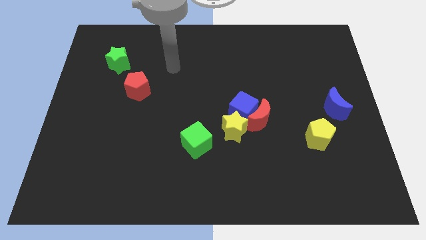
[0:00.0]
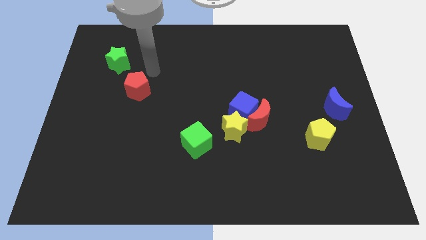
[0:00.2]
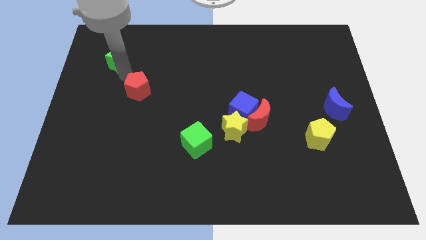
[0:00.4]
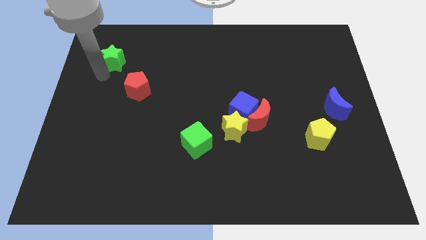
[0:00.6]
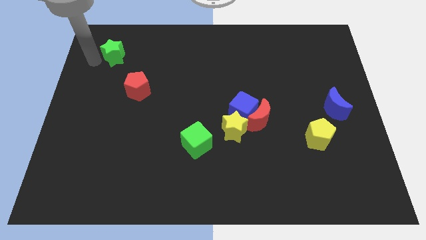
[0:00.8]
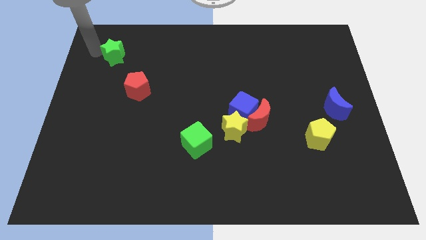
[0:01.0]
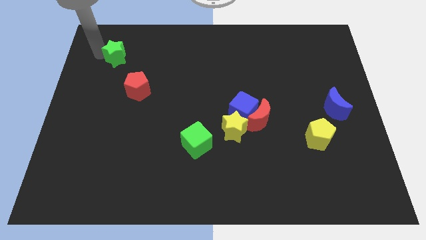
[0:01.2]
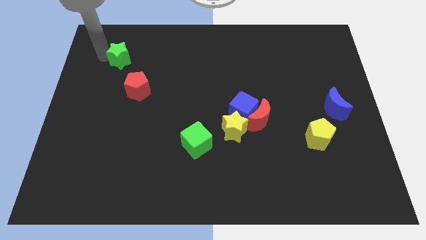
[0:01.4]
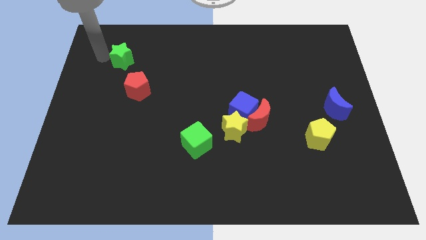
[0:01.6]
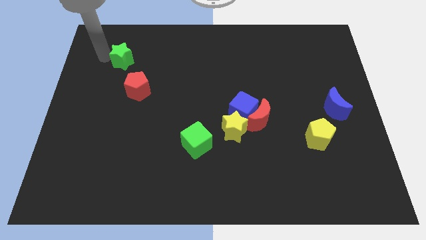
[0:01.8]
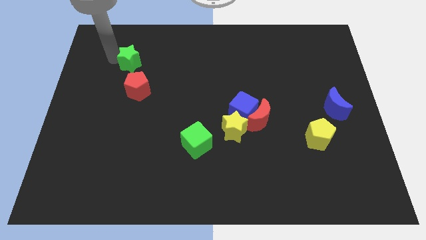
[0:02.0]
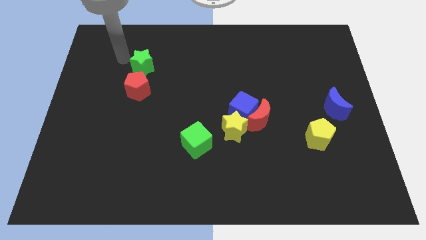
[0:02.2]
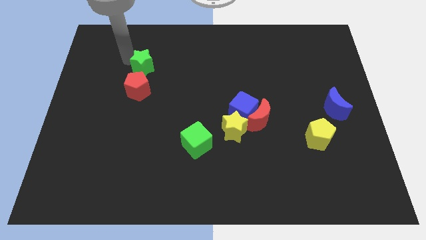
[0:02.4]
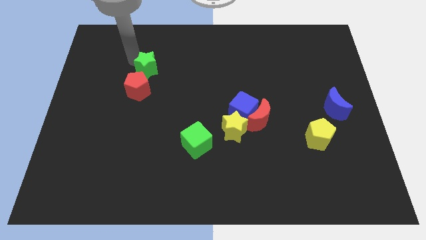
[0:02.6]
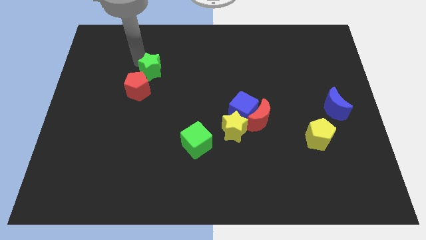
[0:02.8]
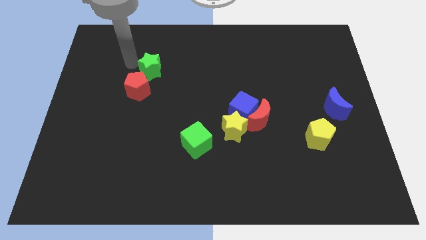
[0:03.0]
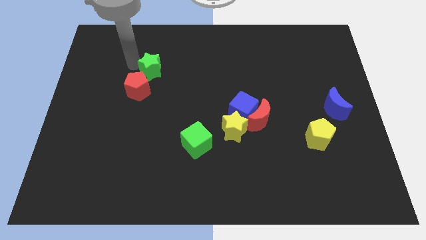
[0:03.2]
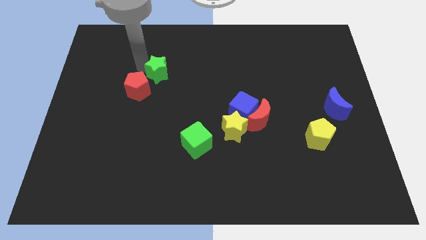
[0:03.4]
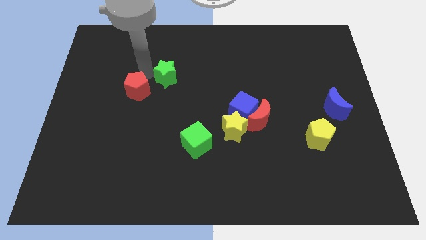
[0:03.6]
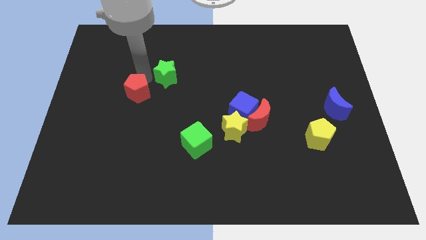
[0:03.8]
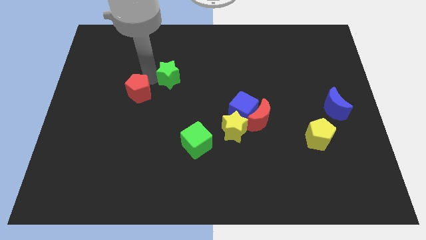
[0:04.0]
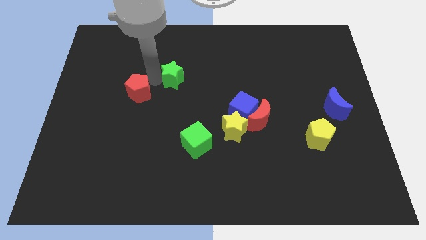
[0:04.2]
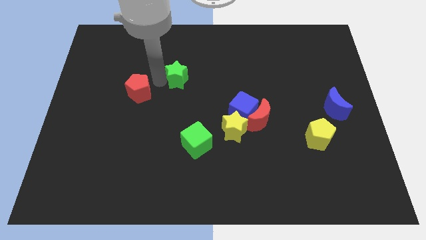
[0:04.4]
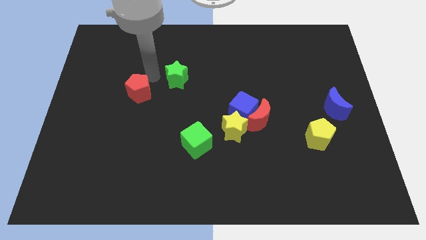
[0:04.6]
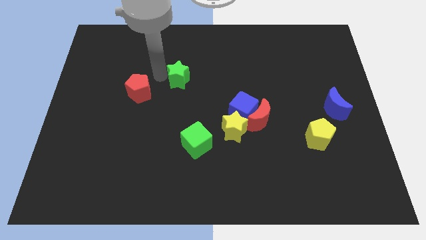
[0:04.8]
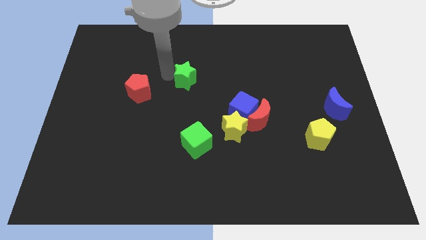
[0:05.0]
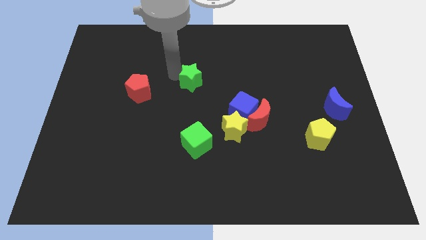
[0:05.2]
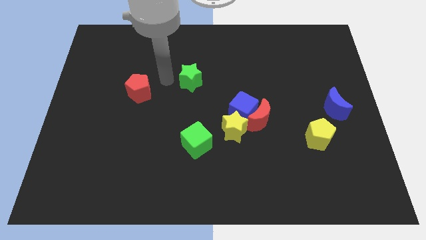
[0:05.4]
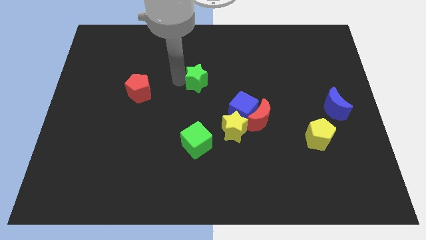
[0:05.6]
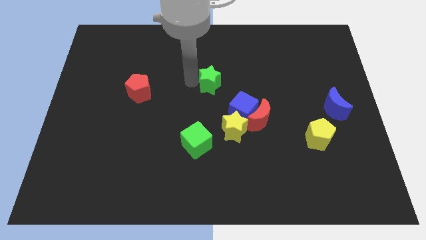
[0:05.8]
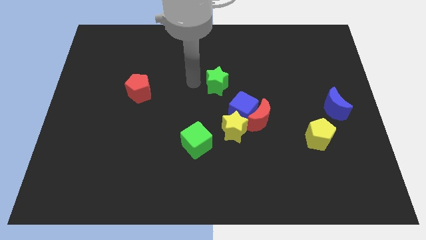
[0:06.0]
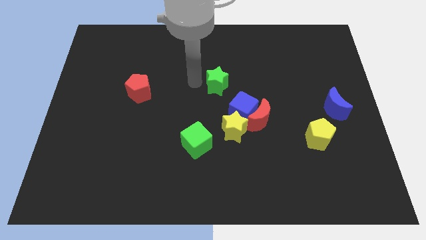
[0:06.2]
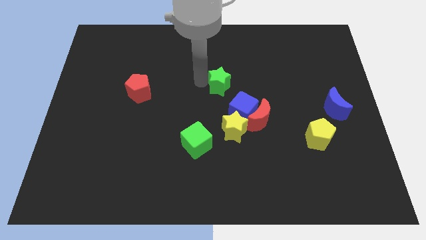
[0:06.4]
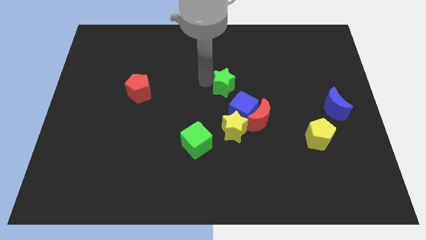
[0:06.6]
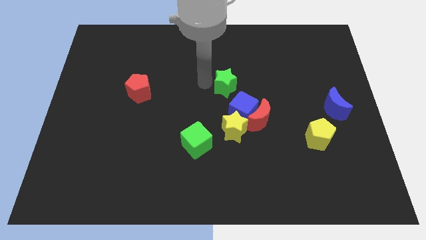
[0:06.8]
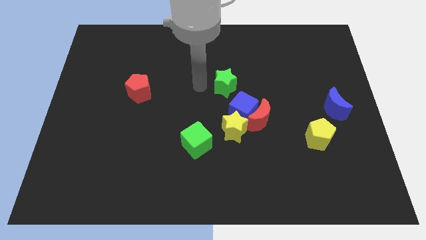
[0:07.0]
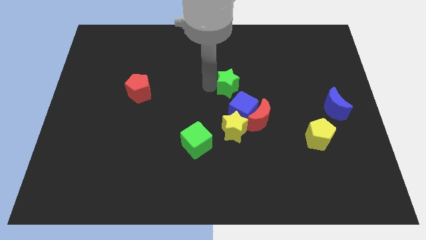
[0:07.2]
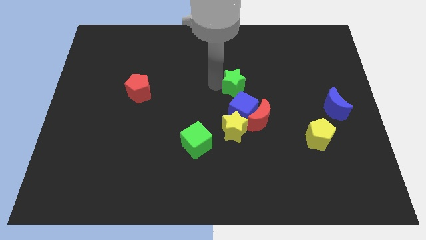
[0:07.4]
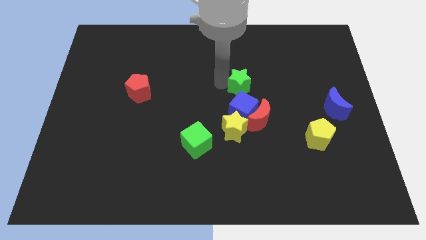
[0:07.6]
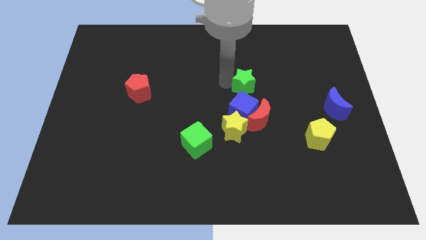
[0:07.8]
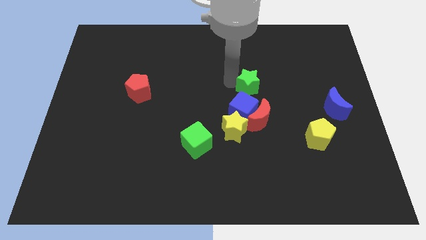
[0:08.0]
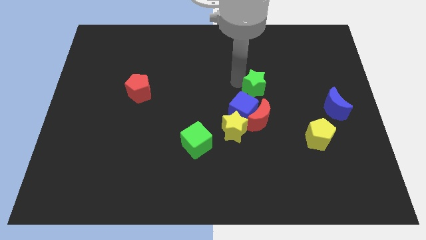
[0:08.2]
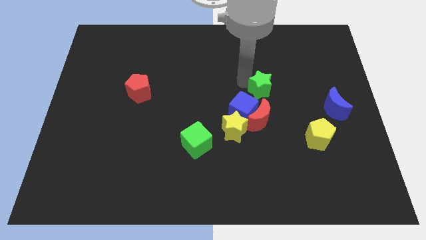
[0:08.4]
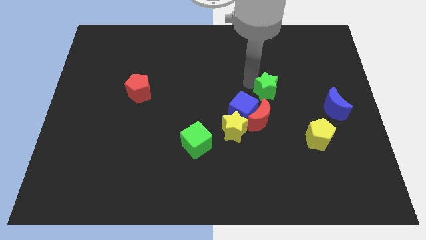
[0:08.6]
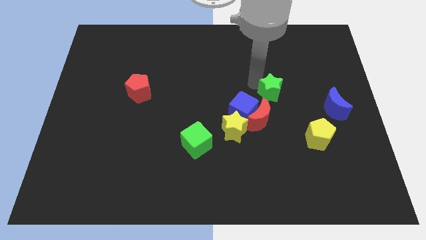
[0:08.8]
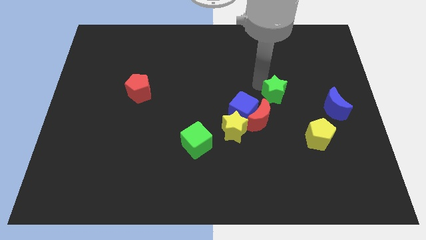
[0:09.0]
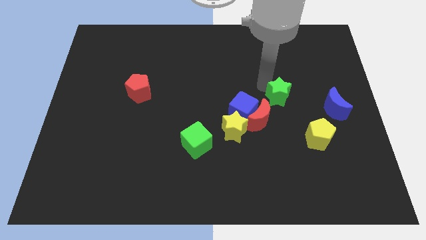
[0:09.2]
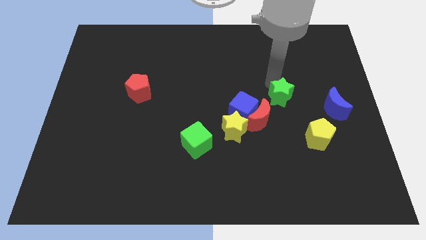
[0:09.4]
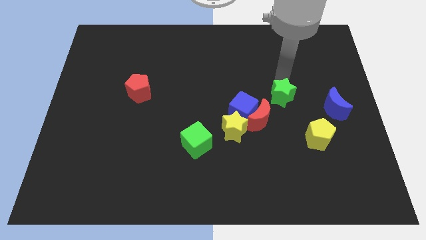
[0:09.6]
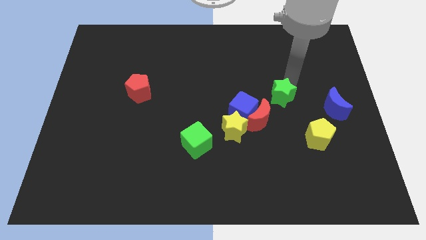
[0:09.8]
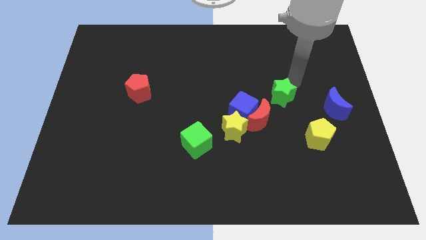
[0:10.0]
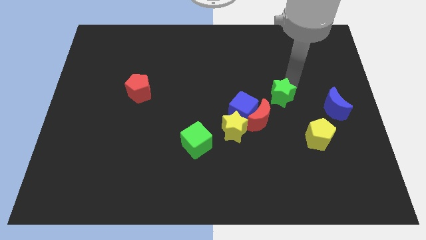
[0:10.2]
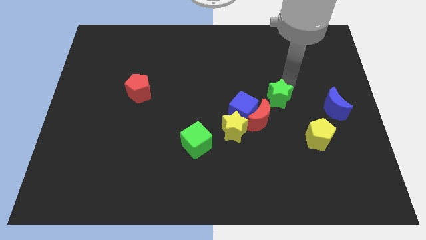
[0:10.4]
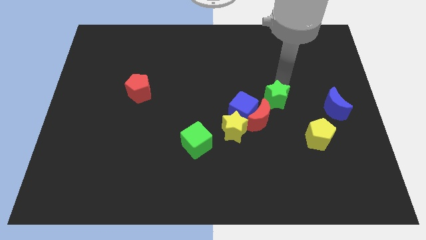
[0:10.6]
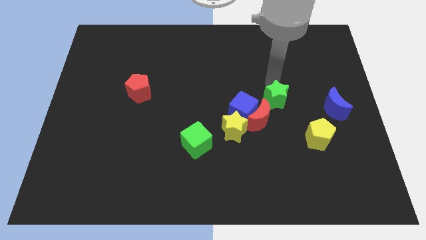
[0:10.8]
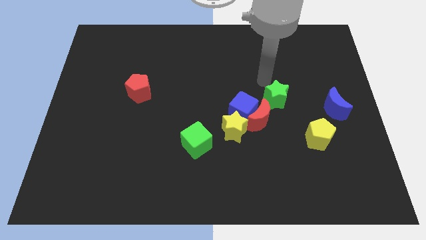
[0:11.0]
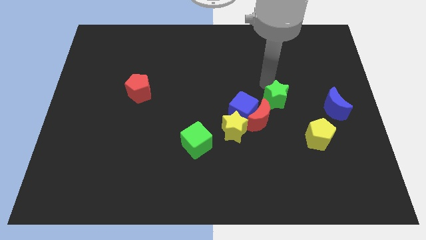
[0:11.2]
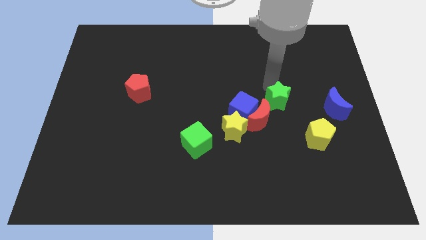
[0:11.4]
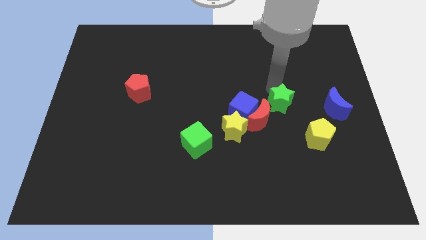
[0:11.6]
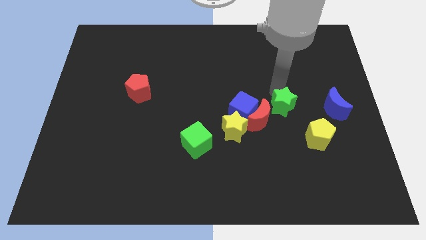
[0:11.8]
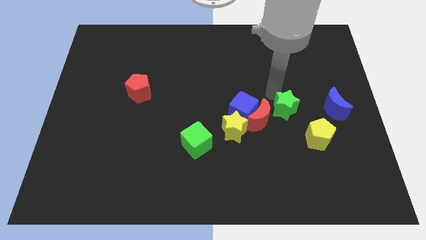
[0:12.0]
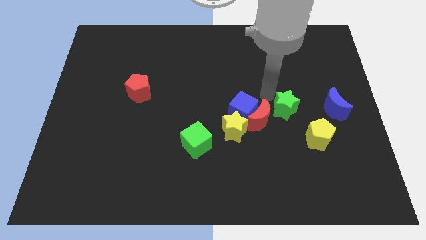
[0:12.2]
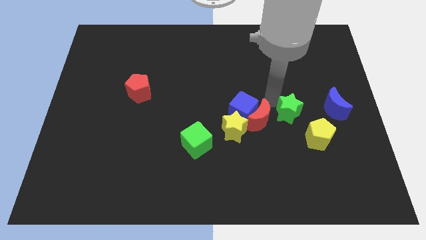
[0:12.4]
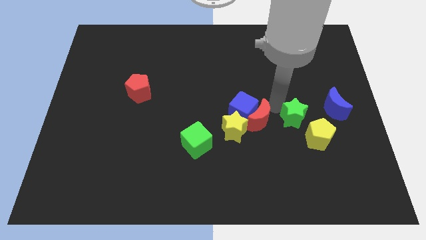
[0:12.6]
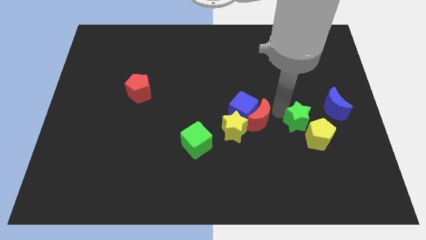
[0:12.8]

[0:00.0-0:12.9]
move the green star to the yellow pentagon

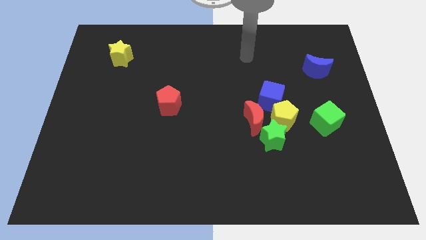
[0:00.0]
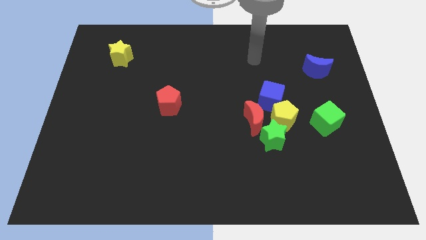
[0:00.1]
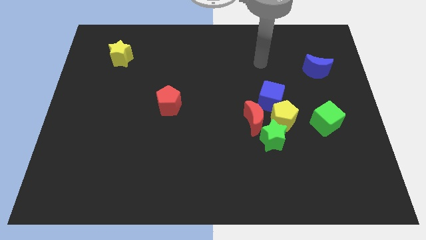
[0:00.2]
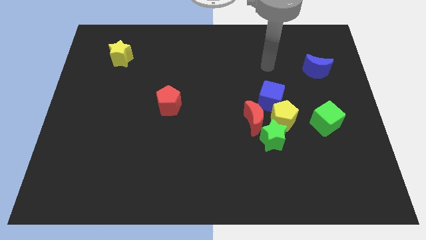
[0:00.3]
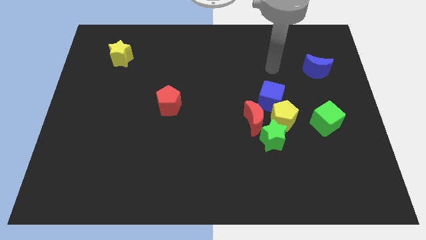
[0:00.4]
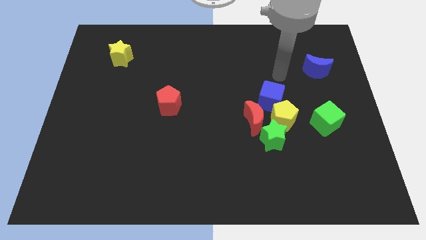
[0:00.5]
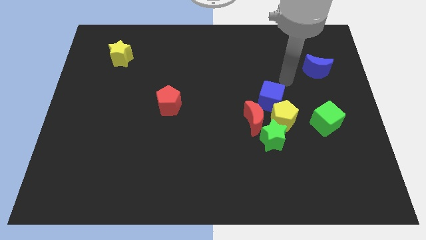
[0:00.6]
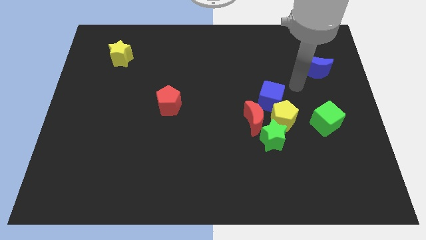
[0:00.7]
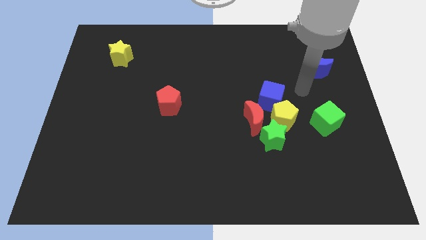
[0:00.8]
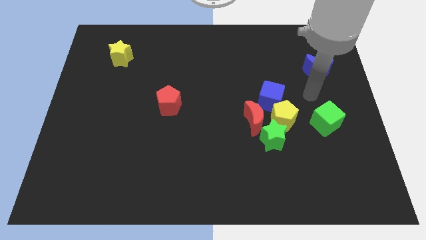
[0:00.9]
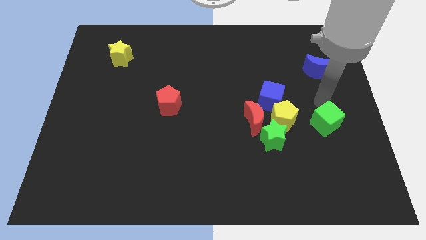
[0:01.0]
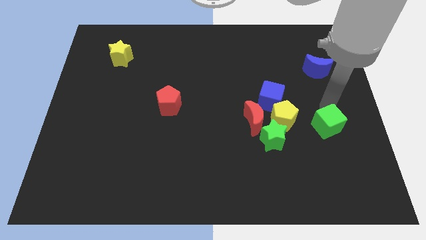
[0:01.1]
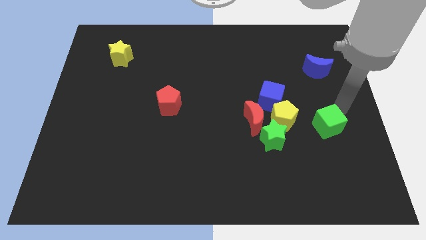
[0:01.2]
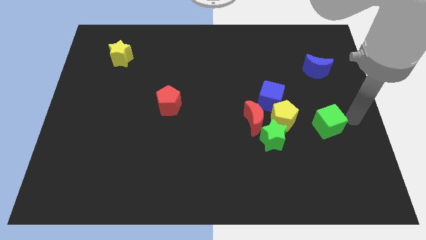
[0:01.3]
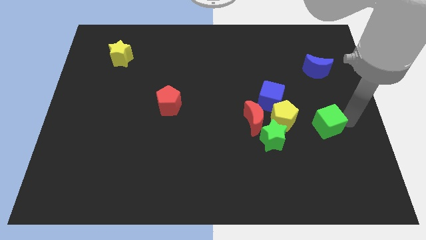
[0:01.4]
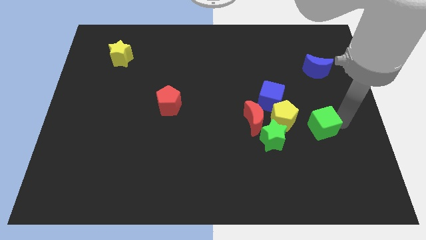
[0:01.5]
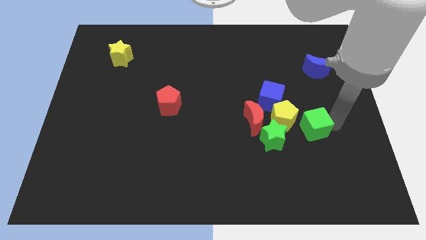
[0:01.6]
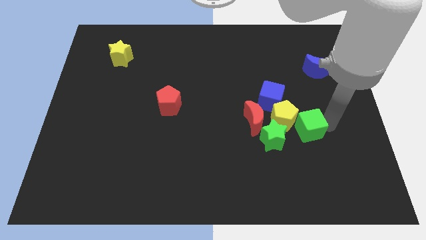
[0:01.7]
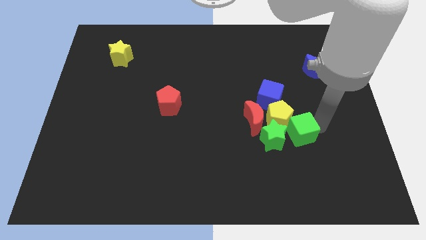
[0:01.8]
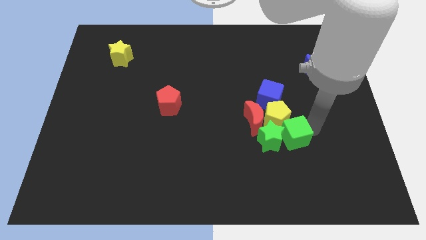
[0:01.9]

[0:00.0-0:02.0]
slide the green cube towards the green star
